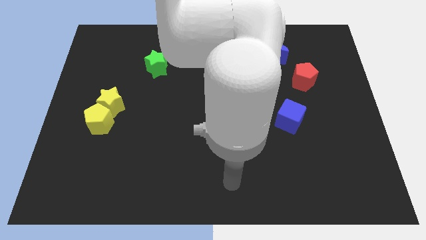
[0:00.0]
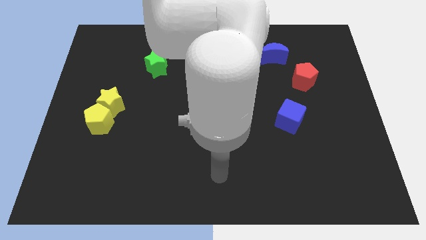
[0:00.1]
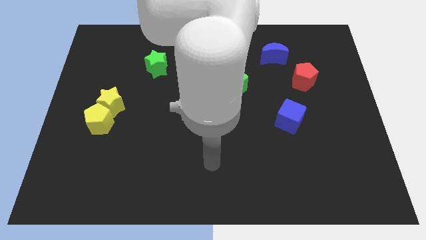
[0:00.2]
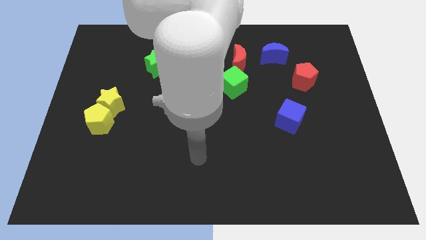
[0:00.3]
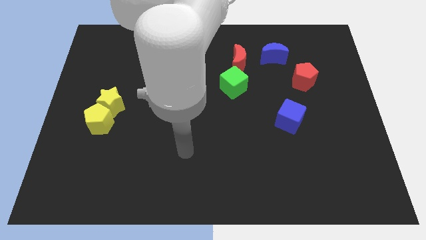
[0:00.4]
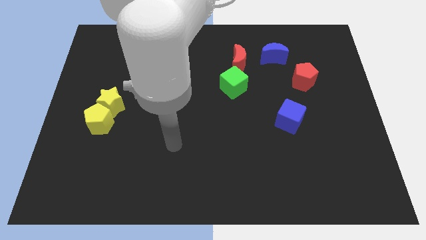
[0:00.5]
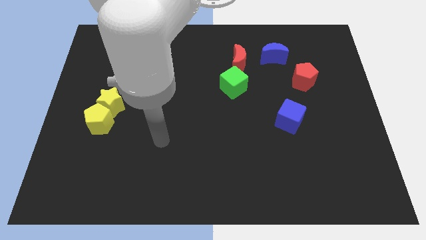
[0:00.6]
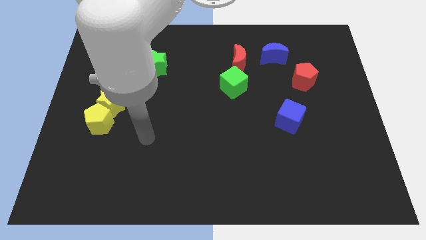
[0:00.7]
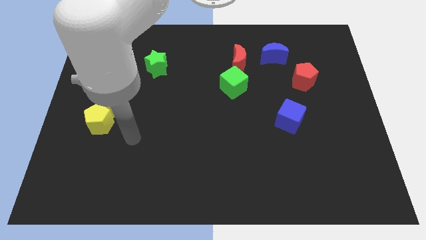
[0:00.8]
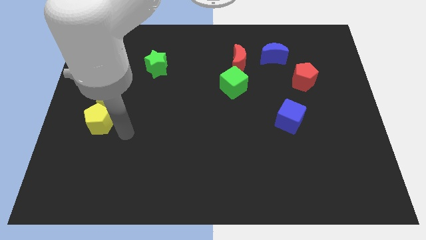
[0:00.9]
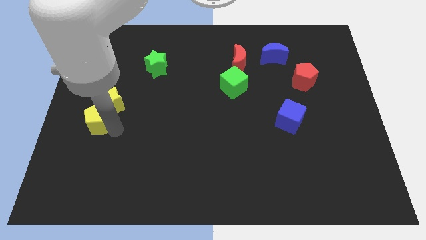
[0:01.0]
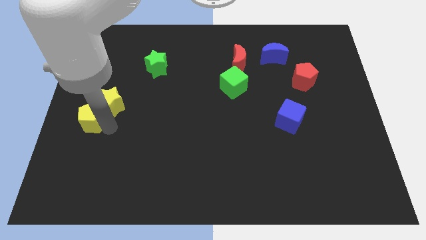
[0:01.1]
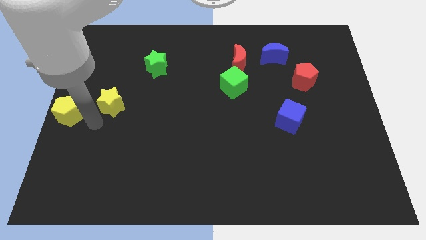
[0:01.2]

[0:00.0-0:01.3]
pull the yellow star apart from the yellow pentagon

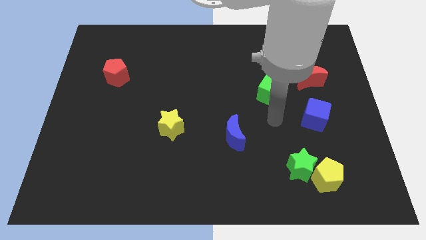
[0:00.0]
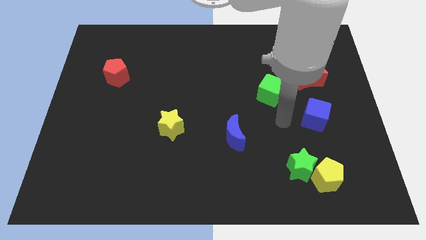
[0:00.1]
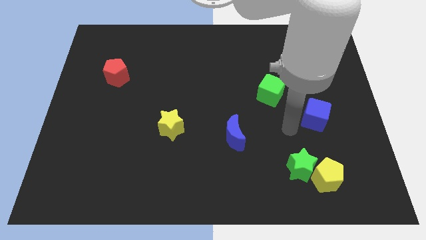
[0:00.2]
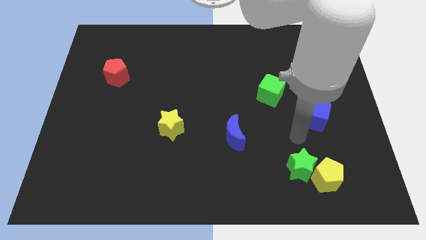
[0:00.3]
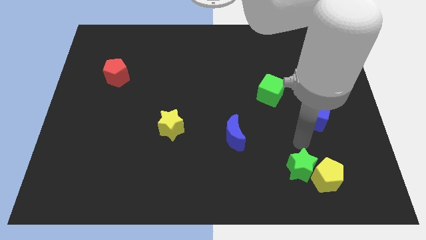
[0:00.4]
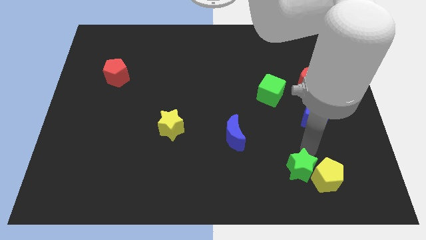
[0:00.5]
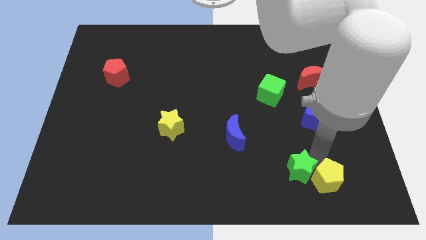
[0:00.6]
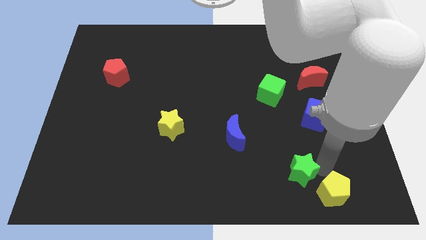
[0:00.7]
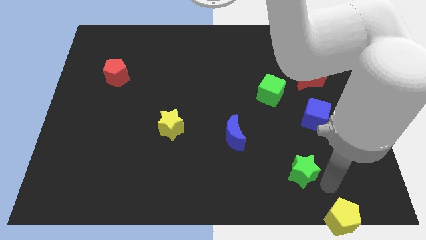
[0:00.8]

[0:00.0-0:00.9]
pull the green star apart from the yellow pentagon

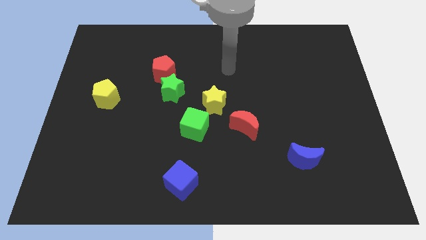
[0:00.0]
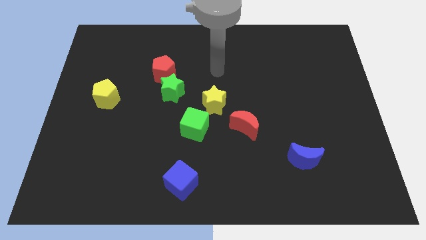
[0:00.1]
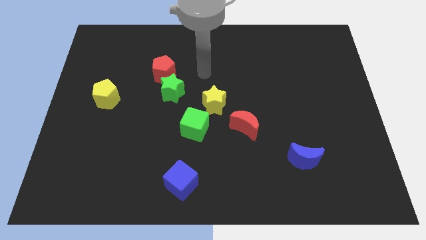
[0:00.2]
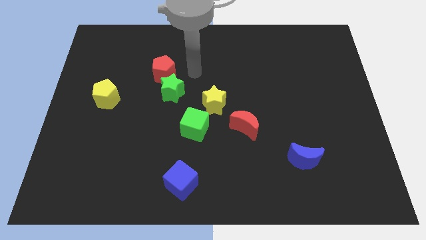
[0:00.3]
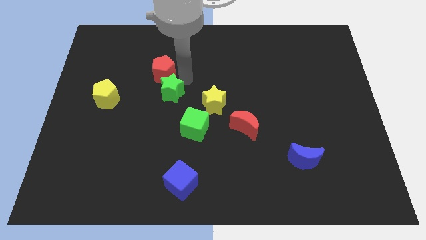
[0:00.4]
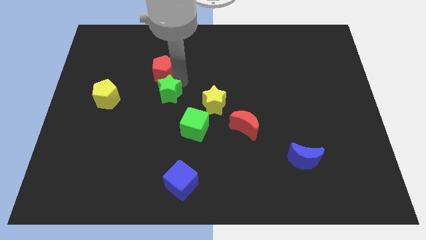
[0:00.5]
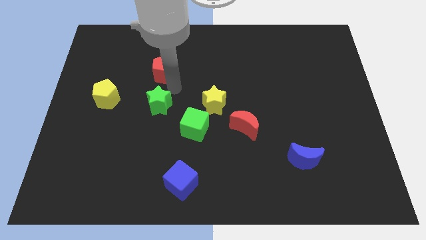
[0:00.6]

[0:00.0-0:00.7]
separate the red pentagon from the green star

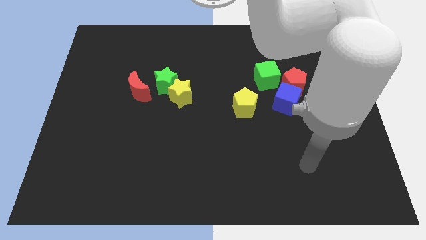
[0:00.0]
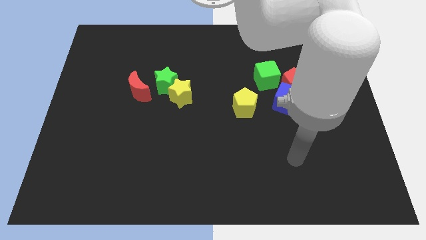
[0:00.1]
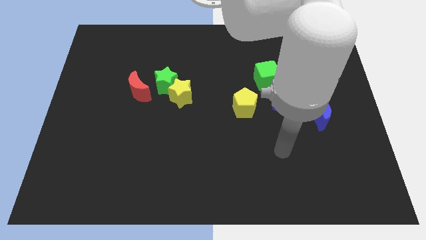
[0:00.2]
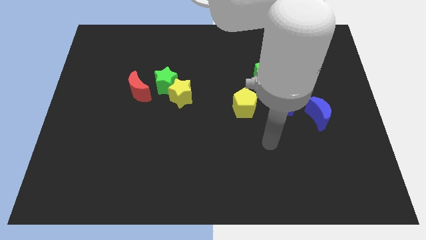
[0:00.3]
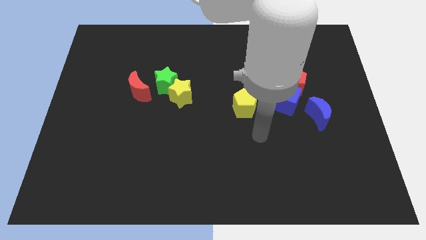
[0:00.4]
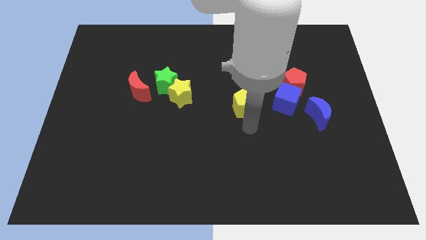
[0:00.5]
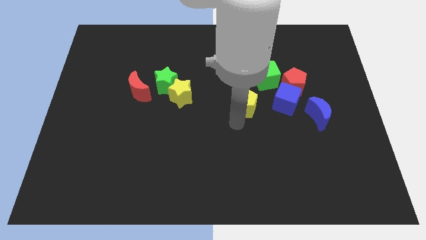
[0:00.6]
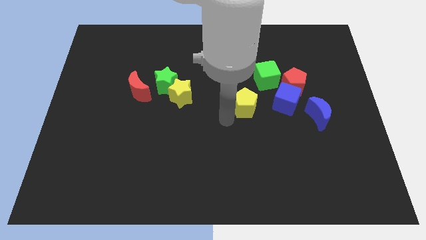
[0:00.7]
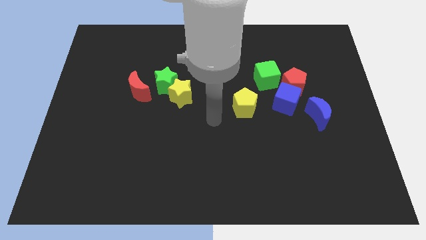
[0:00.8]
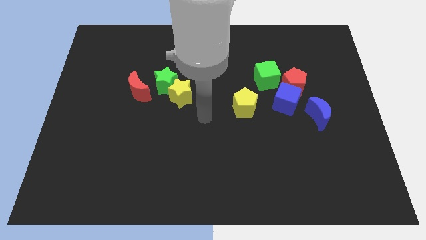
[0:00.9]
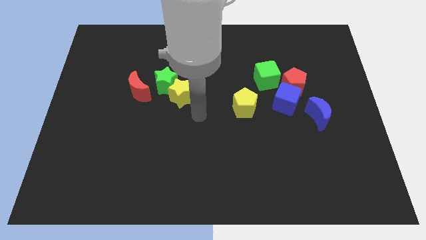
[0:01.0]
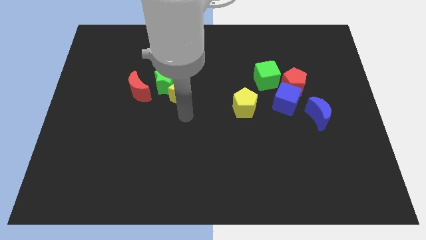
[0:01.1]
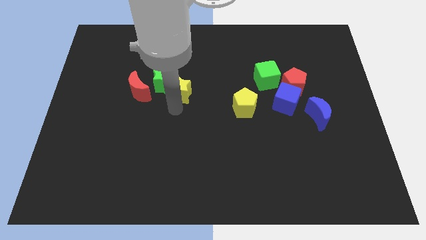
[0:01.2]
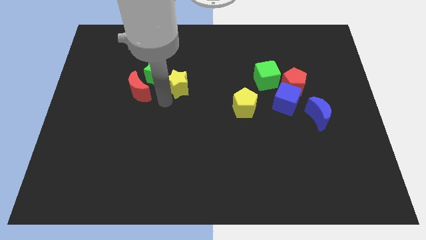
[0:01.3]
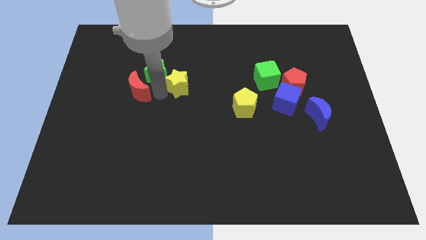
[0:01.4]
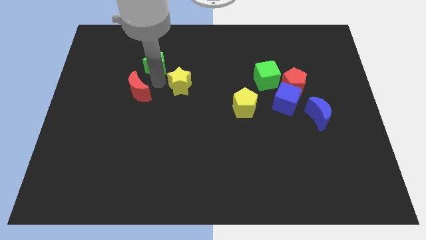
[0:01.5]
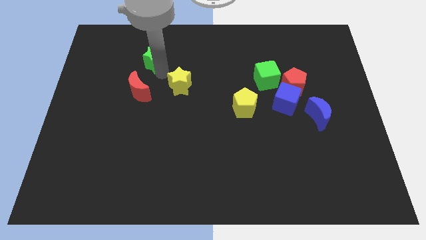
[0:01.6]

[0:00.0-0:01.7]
separate the yellow star from the green star

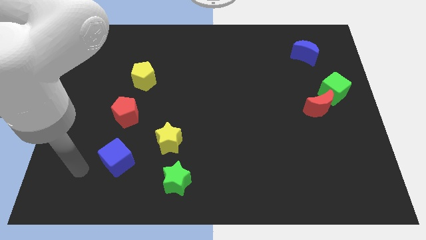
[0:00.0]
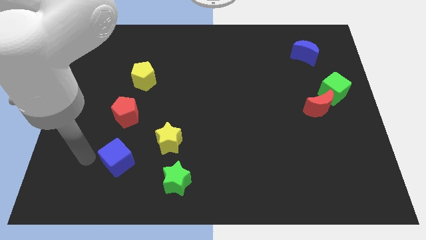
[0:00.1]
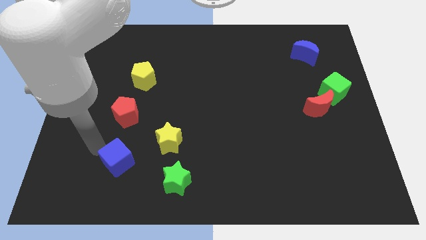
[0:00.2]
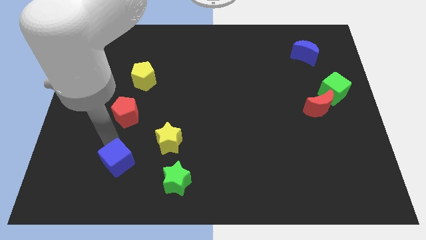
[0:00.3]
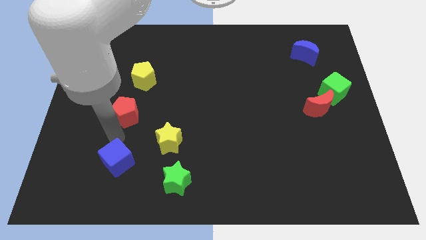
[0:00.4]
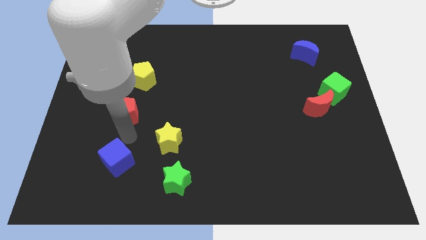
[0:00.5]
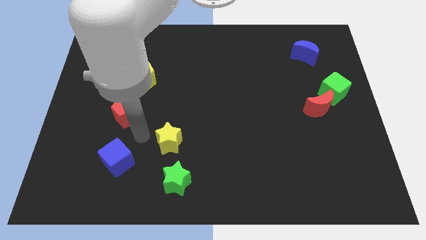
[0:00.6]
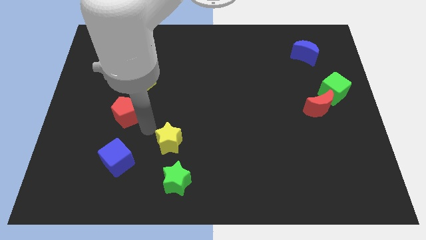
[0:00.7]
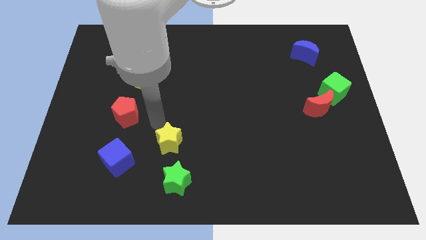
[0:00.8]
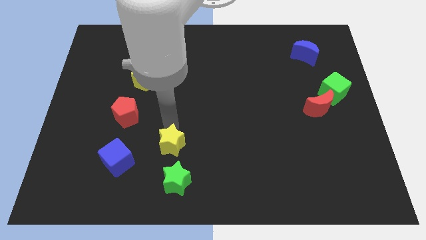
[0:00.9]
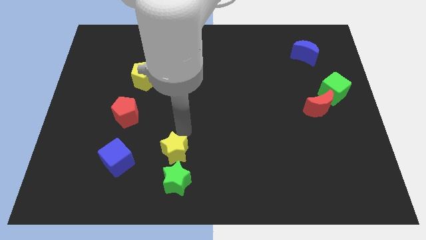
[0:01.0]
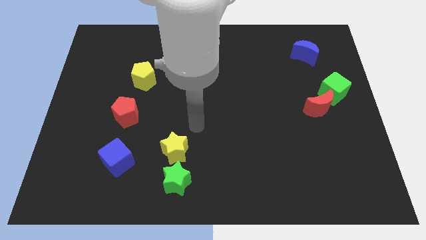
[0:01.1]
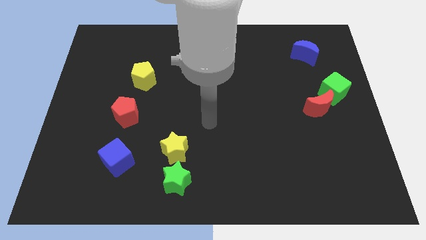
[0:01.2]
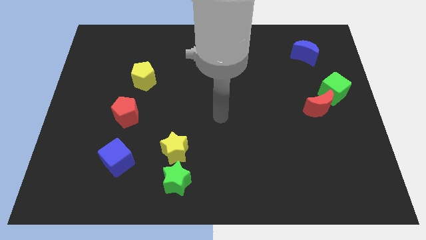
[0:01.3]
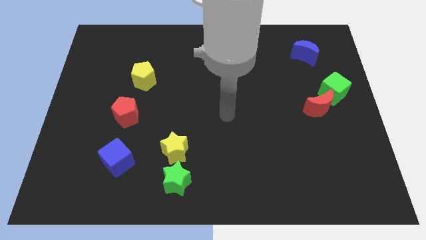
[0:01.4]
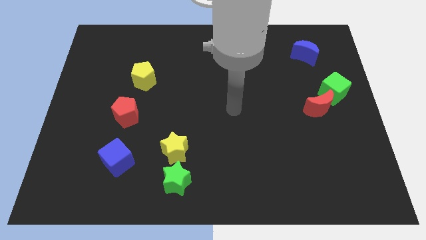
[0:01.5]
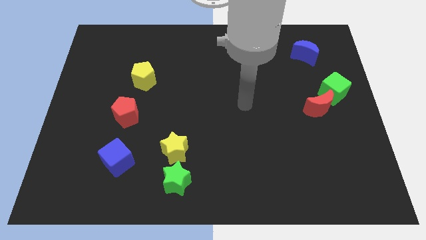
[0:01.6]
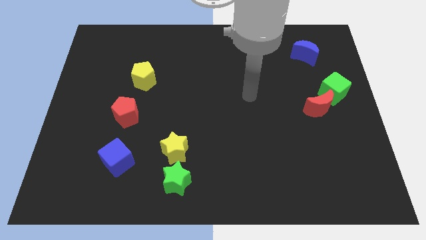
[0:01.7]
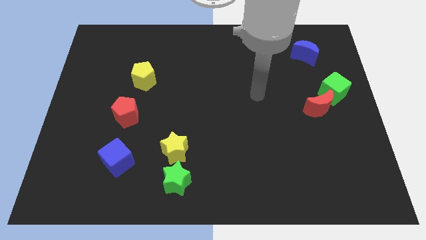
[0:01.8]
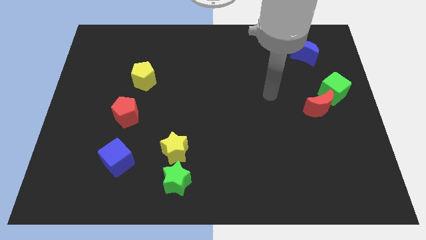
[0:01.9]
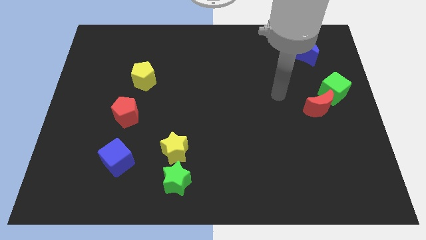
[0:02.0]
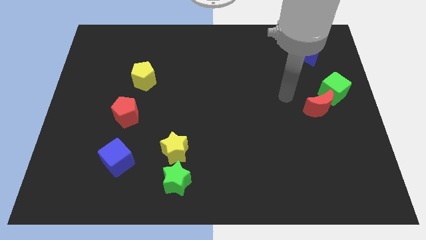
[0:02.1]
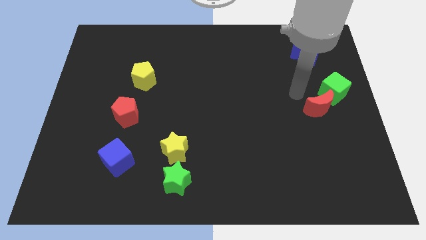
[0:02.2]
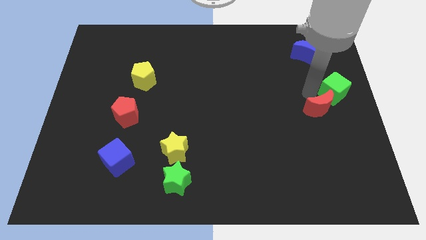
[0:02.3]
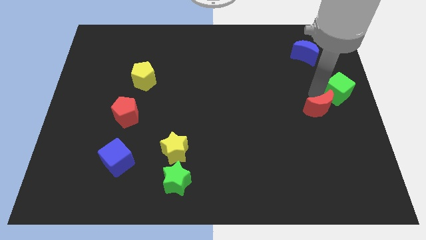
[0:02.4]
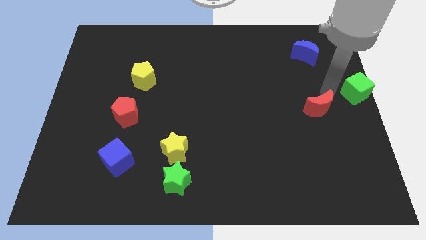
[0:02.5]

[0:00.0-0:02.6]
move the red moon away from the green cube

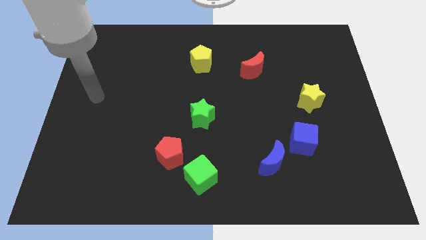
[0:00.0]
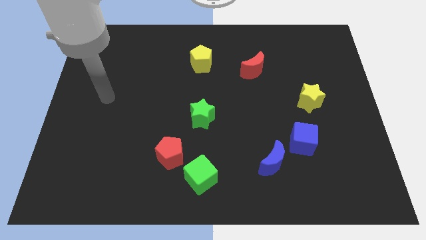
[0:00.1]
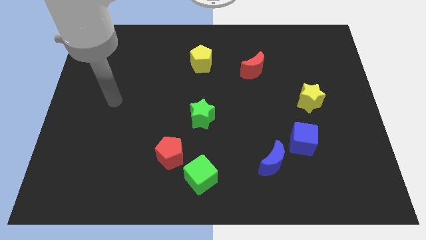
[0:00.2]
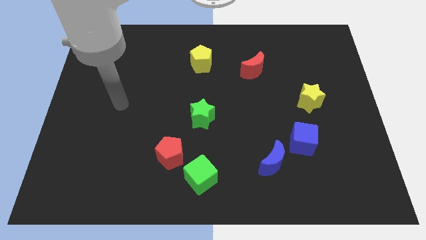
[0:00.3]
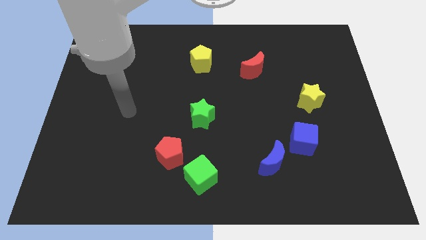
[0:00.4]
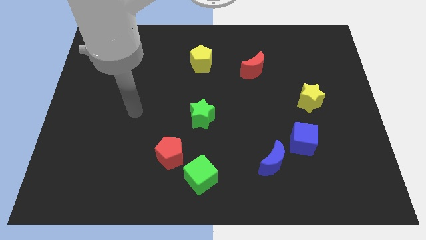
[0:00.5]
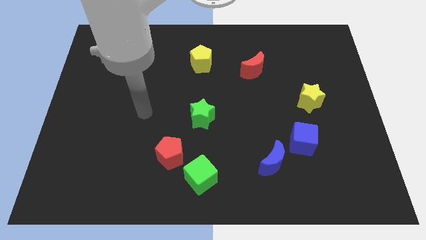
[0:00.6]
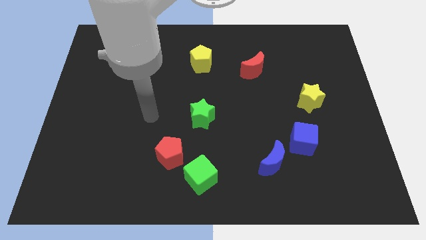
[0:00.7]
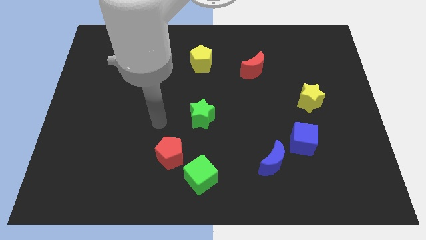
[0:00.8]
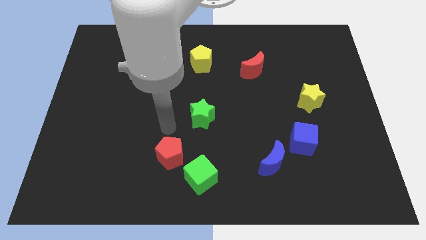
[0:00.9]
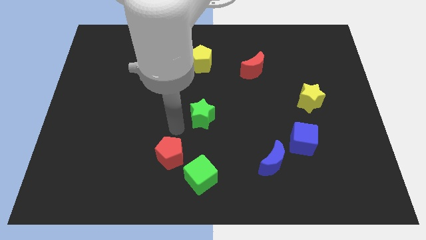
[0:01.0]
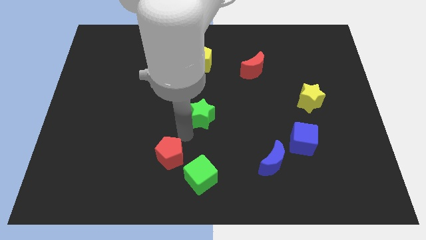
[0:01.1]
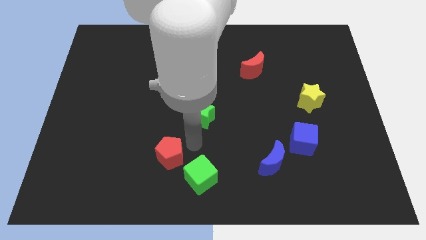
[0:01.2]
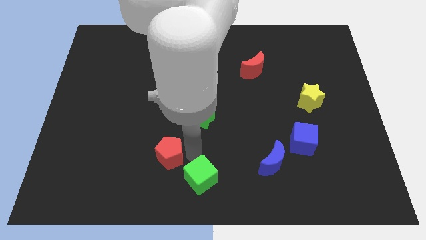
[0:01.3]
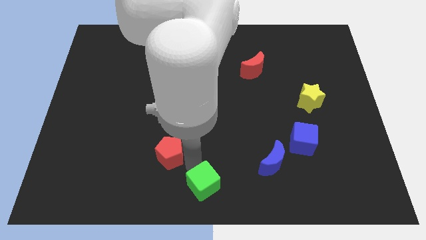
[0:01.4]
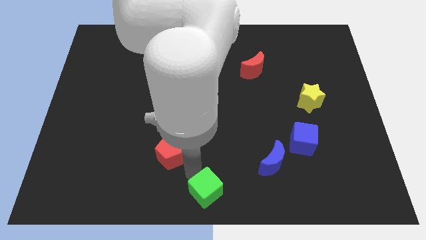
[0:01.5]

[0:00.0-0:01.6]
separate the red pentagon from the green cube

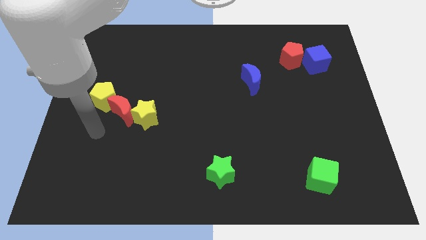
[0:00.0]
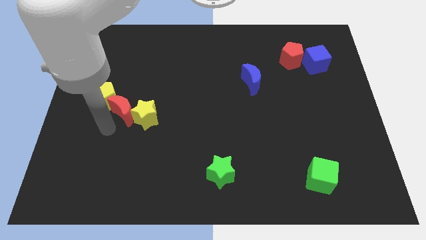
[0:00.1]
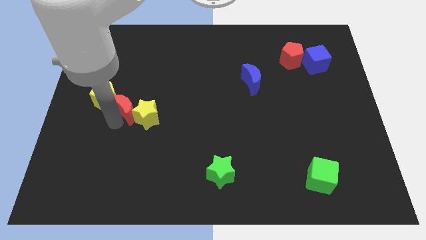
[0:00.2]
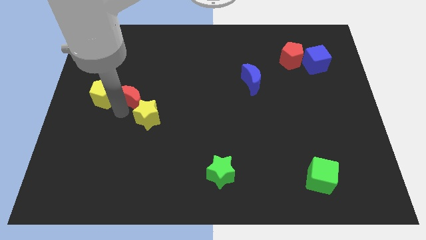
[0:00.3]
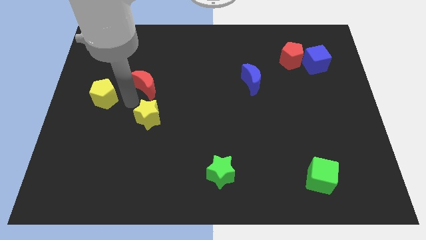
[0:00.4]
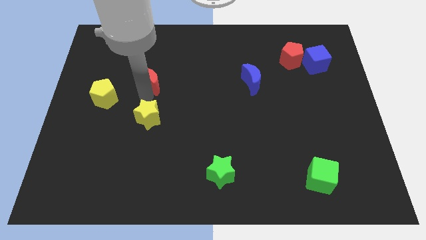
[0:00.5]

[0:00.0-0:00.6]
separate the yellow star from the red moon
